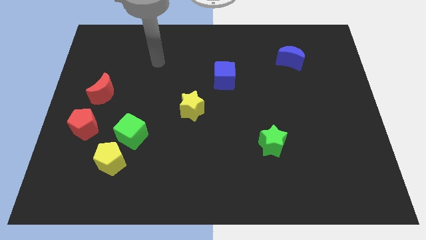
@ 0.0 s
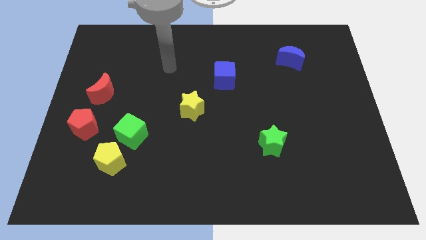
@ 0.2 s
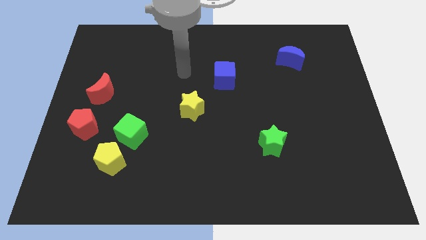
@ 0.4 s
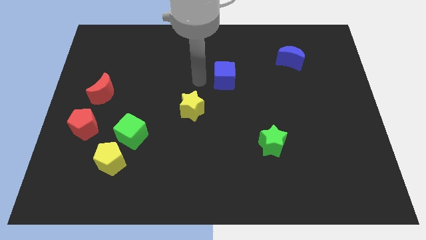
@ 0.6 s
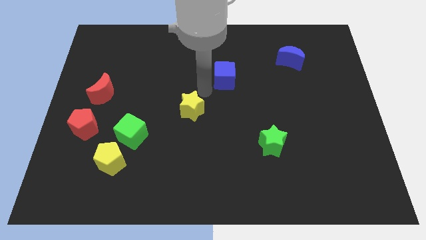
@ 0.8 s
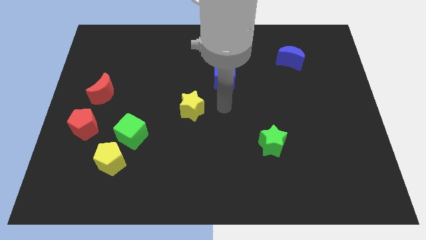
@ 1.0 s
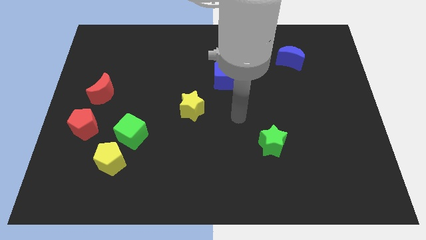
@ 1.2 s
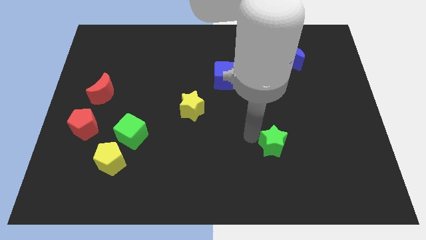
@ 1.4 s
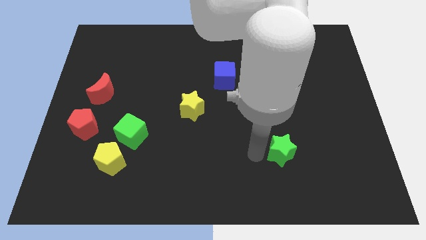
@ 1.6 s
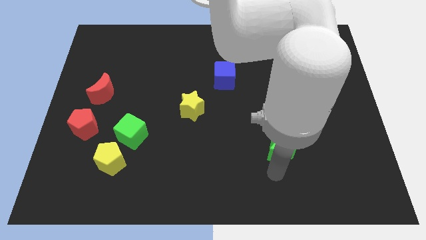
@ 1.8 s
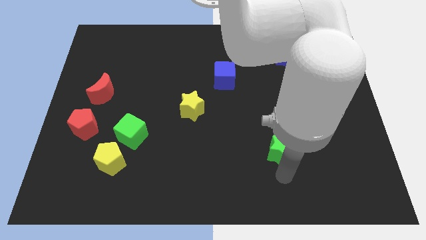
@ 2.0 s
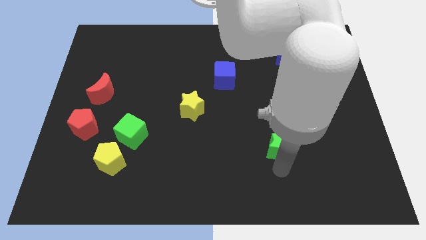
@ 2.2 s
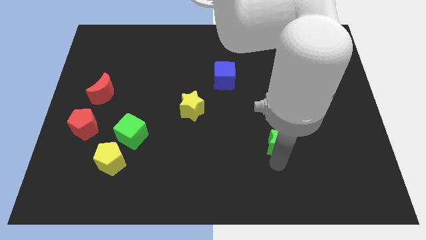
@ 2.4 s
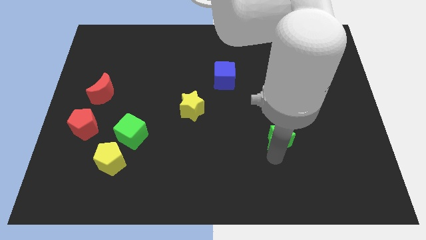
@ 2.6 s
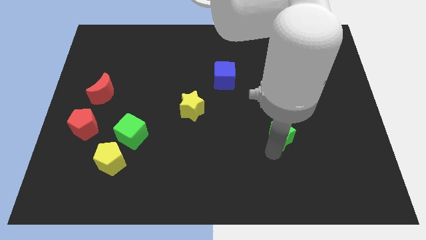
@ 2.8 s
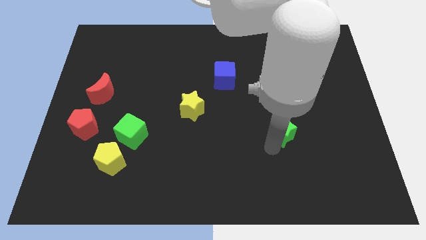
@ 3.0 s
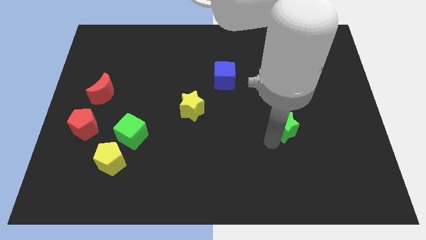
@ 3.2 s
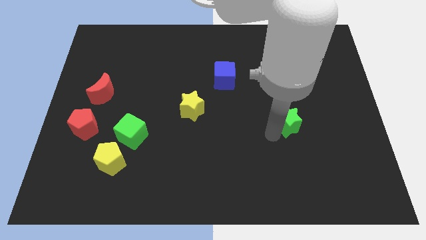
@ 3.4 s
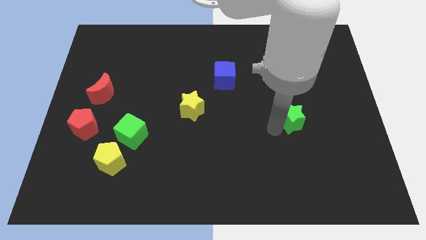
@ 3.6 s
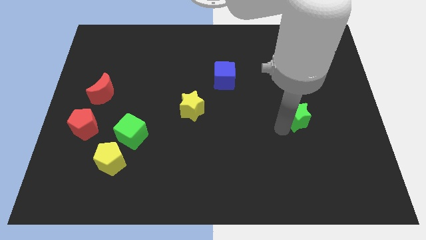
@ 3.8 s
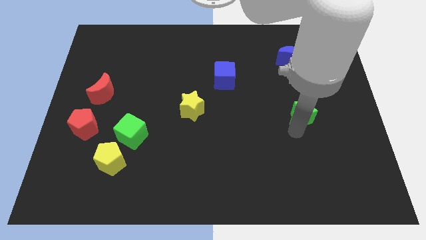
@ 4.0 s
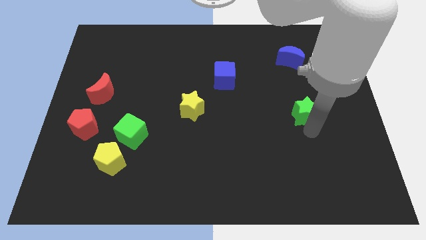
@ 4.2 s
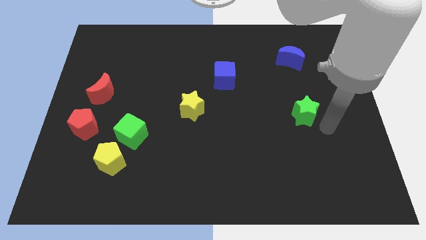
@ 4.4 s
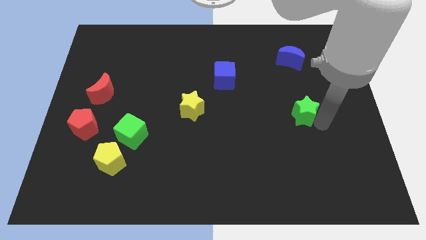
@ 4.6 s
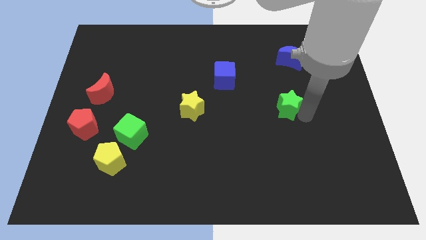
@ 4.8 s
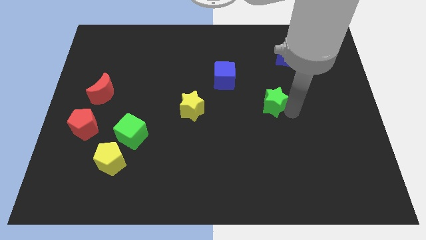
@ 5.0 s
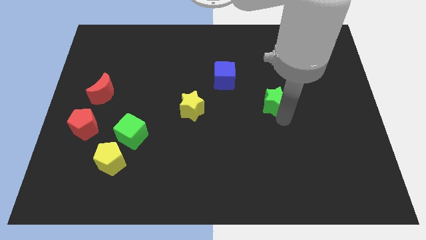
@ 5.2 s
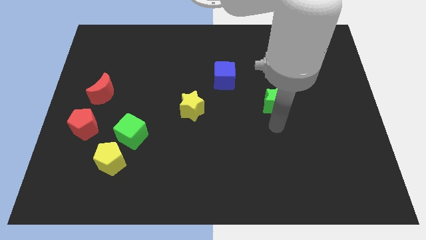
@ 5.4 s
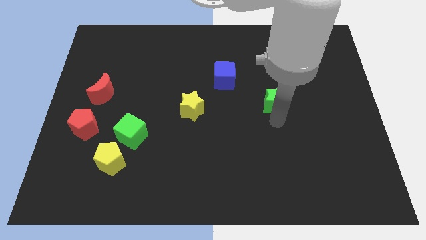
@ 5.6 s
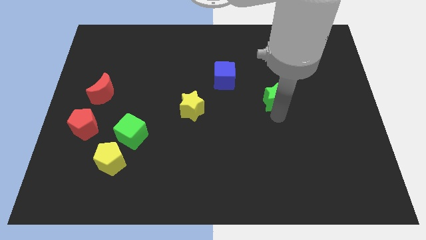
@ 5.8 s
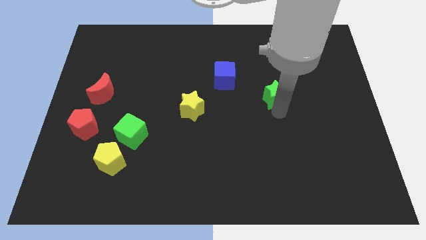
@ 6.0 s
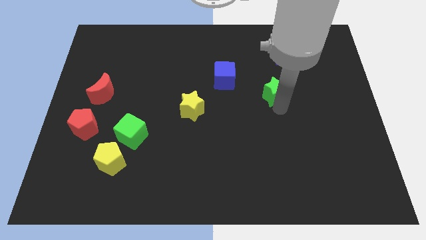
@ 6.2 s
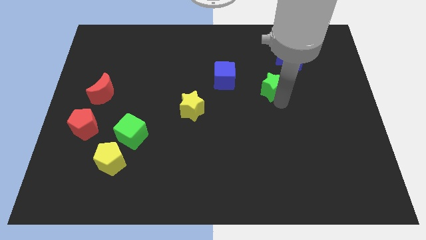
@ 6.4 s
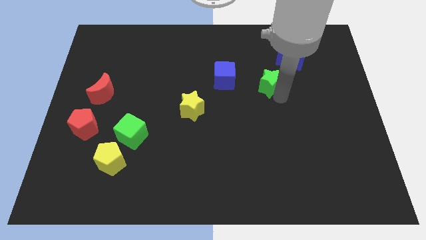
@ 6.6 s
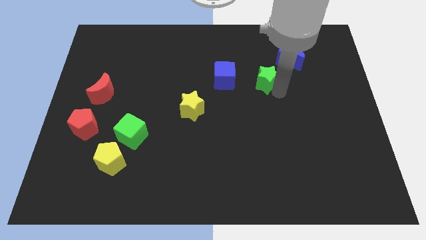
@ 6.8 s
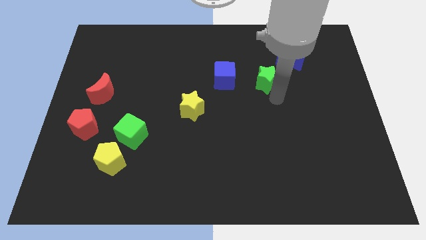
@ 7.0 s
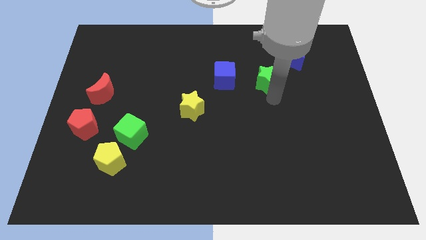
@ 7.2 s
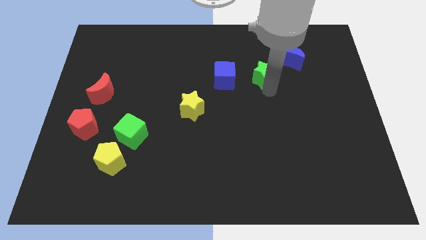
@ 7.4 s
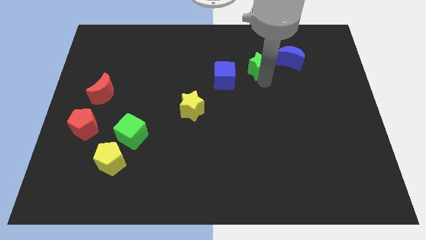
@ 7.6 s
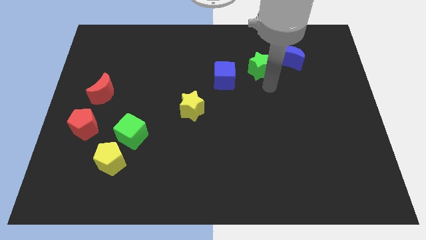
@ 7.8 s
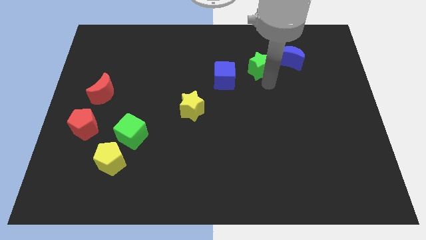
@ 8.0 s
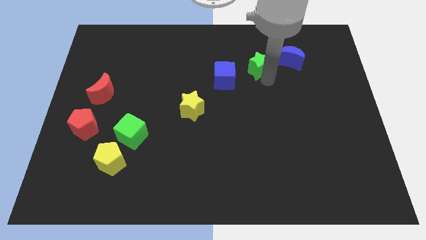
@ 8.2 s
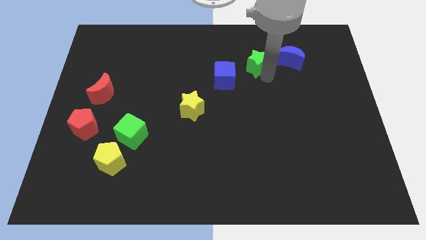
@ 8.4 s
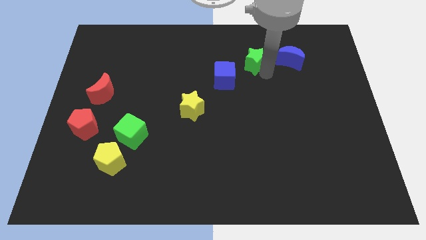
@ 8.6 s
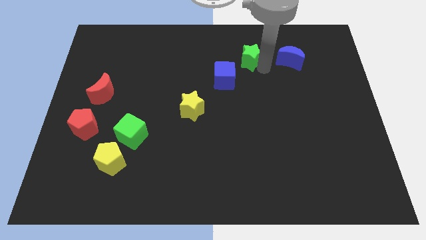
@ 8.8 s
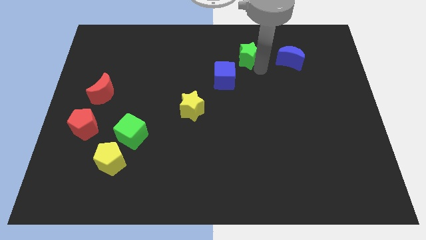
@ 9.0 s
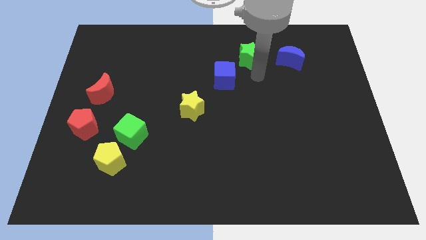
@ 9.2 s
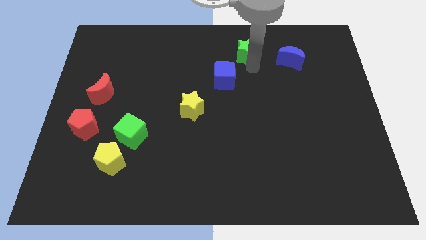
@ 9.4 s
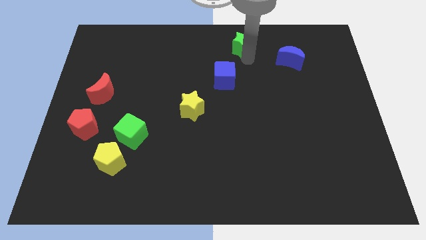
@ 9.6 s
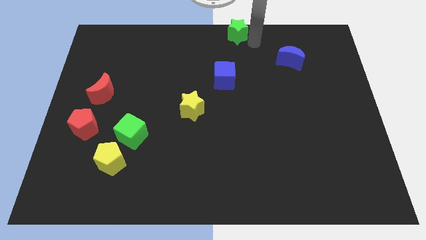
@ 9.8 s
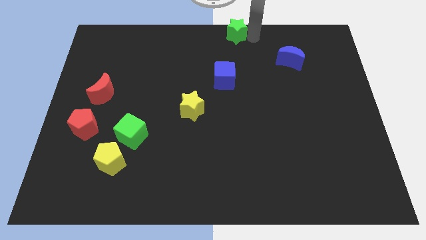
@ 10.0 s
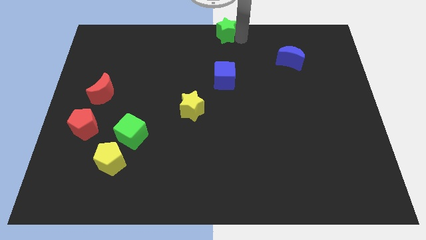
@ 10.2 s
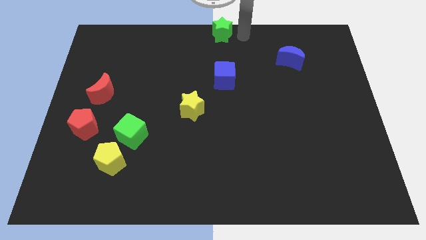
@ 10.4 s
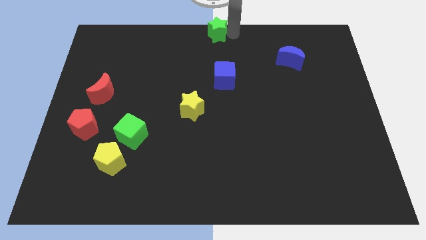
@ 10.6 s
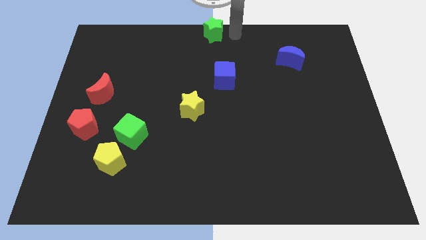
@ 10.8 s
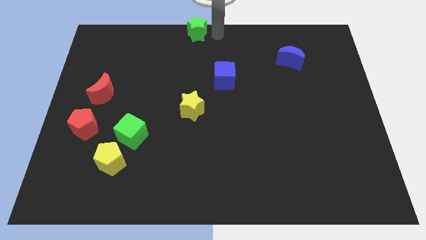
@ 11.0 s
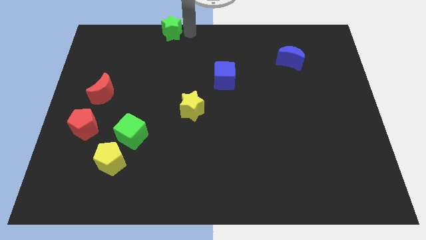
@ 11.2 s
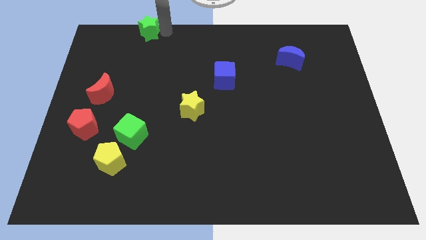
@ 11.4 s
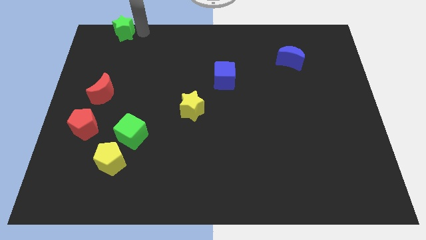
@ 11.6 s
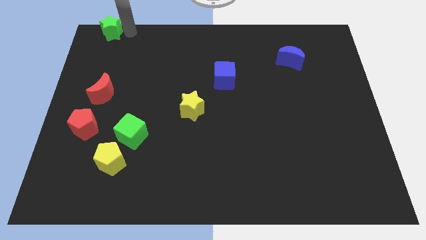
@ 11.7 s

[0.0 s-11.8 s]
slide the green star to the top left
